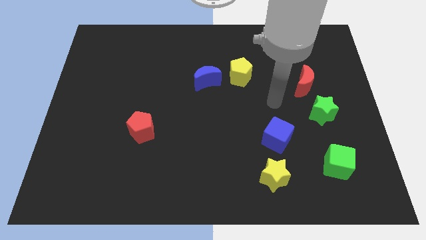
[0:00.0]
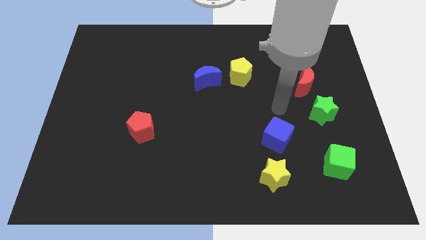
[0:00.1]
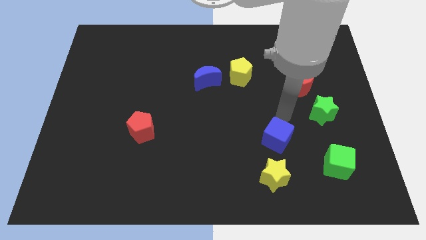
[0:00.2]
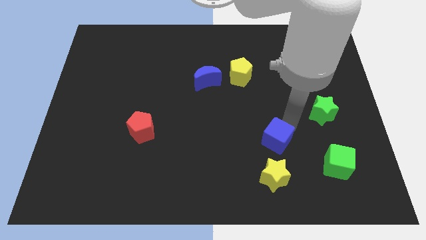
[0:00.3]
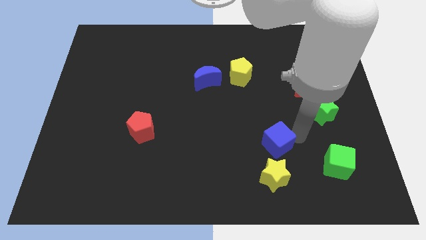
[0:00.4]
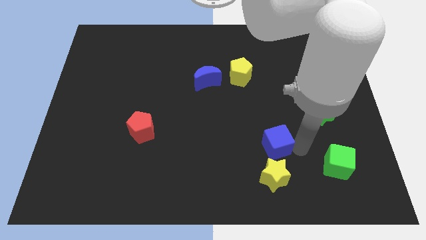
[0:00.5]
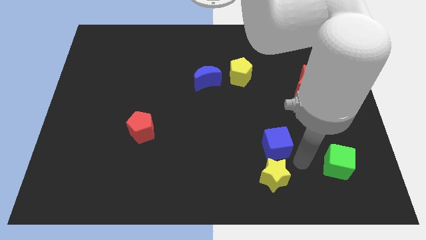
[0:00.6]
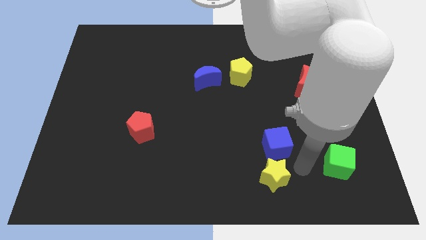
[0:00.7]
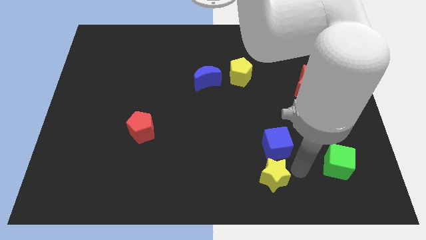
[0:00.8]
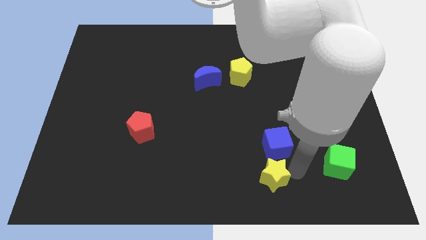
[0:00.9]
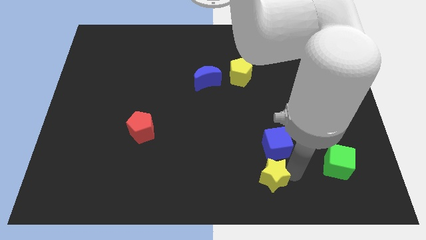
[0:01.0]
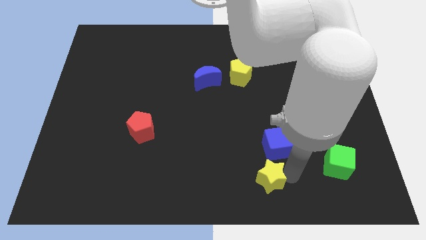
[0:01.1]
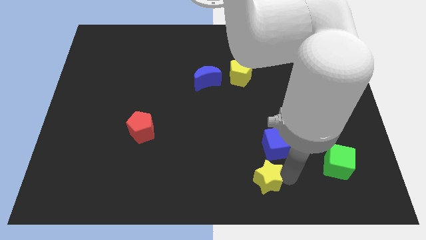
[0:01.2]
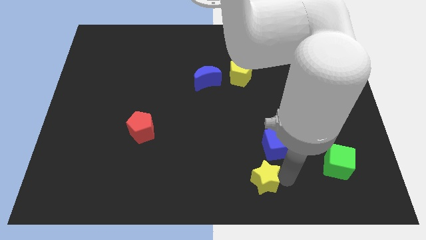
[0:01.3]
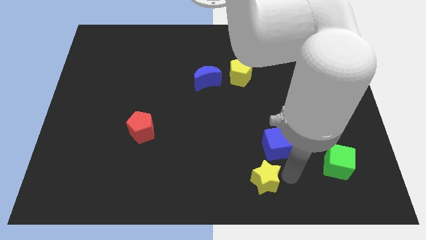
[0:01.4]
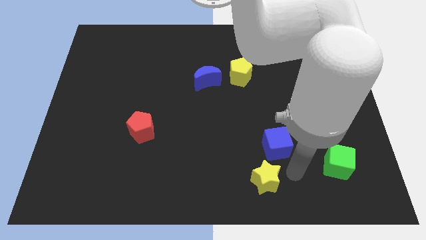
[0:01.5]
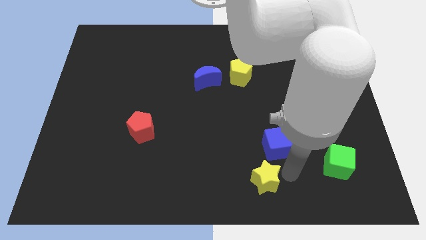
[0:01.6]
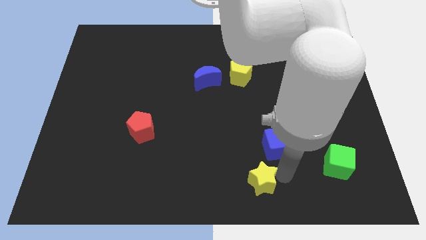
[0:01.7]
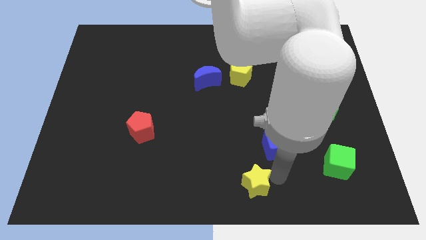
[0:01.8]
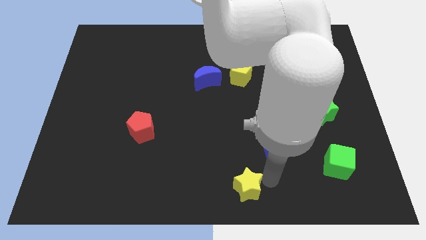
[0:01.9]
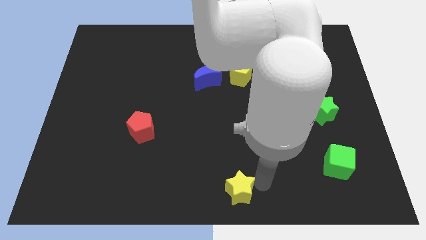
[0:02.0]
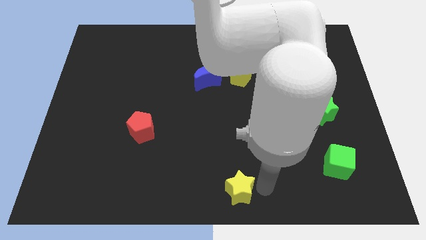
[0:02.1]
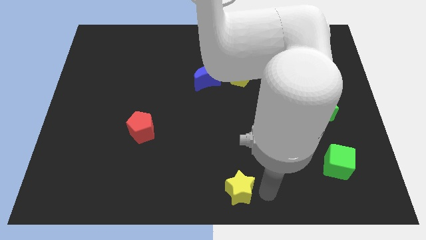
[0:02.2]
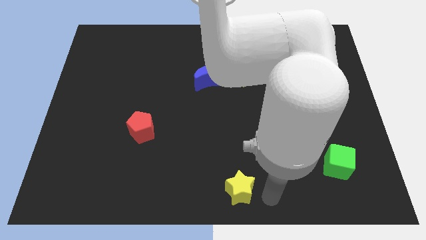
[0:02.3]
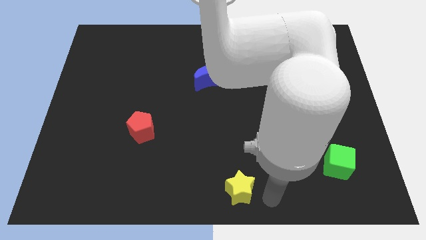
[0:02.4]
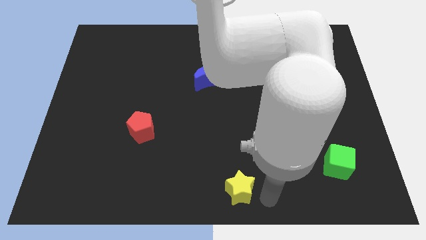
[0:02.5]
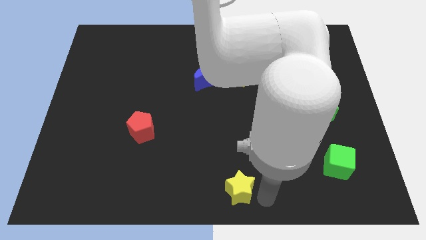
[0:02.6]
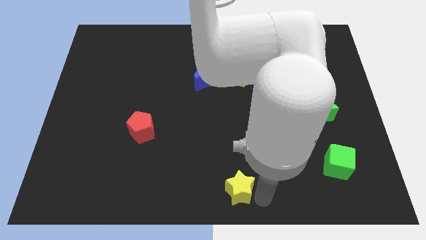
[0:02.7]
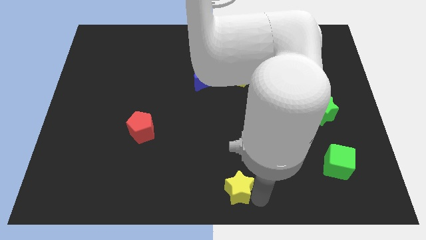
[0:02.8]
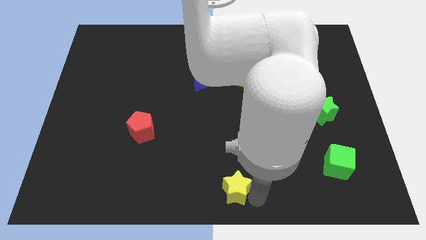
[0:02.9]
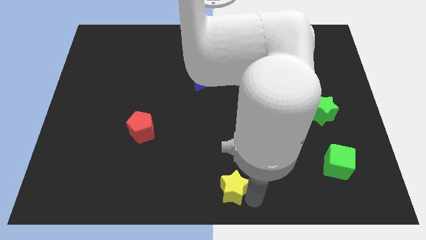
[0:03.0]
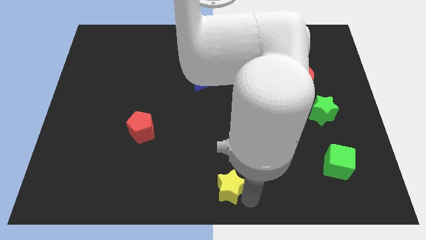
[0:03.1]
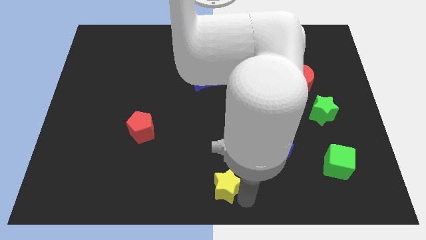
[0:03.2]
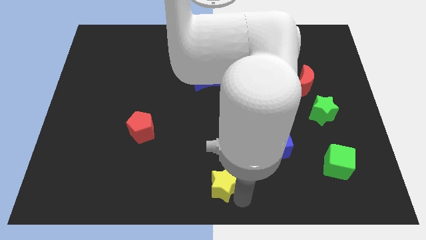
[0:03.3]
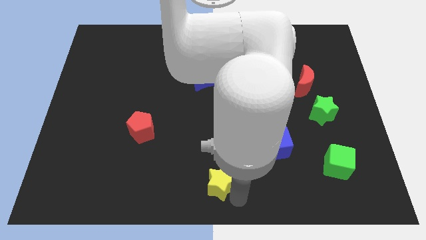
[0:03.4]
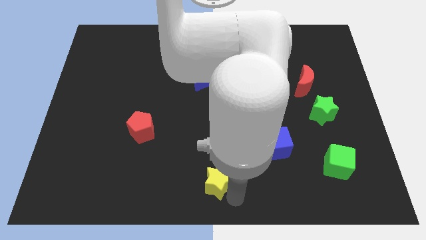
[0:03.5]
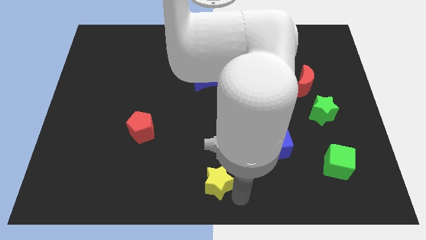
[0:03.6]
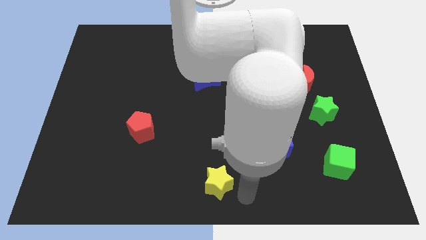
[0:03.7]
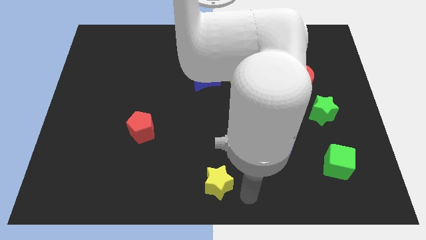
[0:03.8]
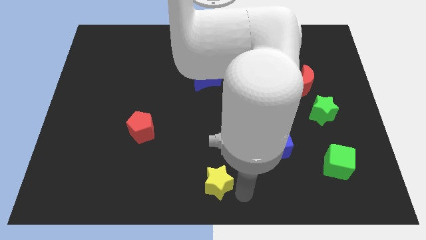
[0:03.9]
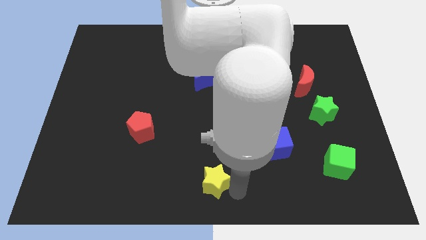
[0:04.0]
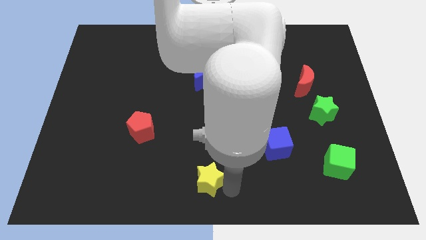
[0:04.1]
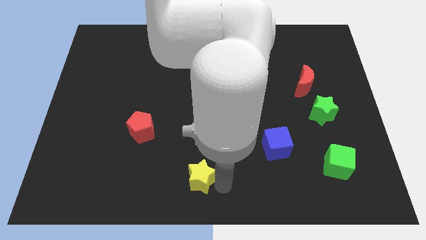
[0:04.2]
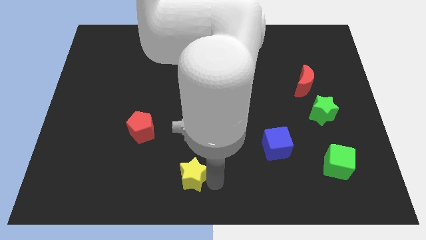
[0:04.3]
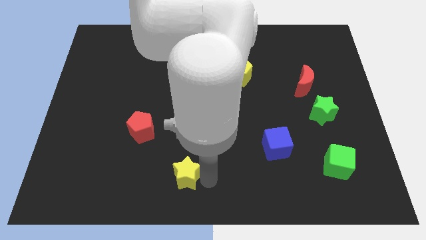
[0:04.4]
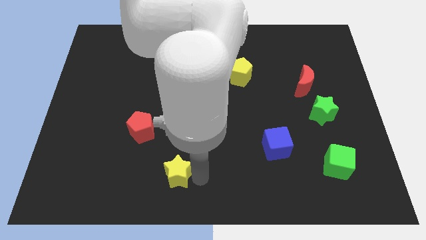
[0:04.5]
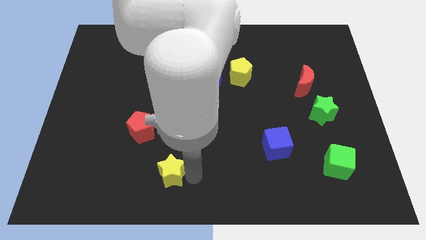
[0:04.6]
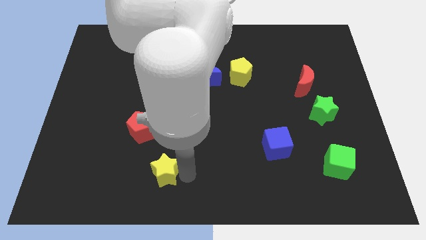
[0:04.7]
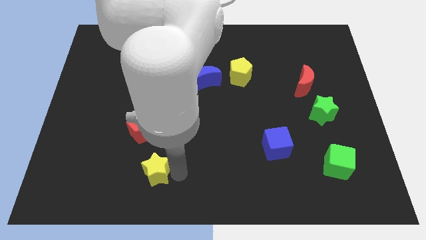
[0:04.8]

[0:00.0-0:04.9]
push the yellow star to the bottom side of the red pentagon

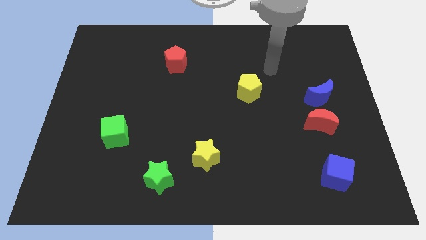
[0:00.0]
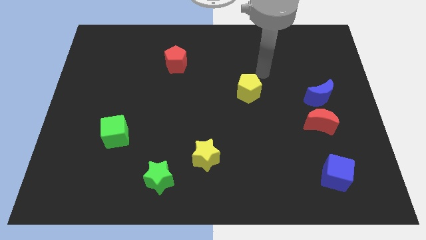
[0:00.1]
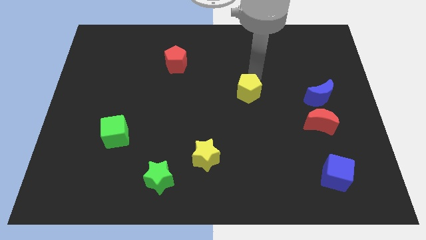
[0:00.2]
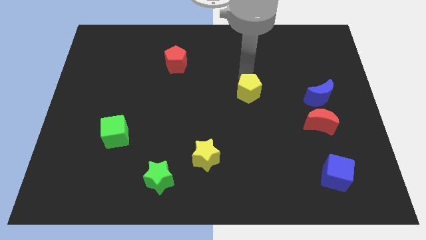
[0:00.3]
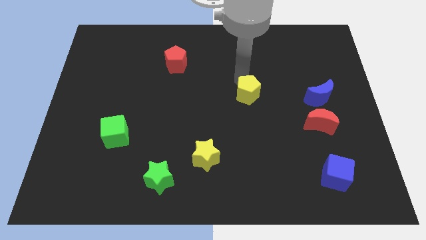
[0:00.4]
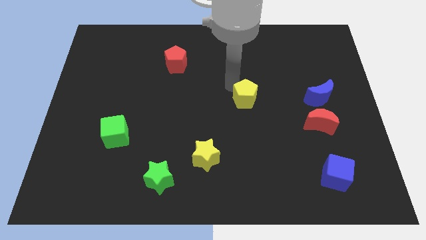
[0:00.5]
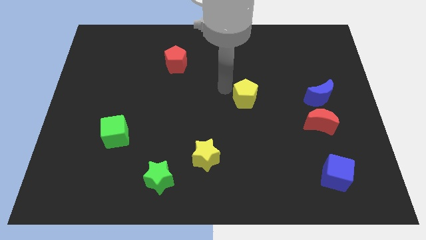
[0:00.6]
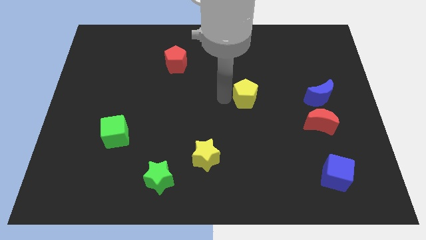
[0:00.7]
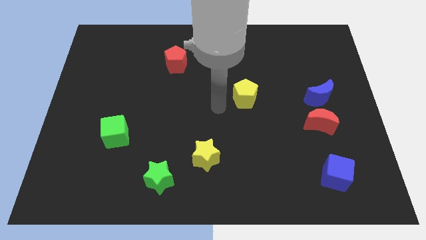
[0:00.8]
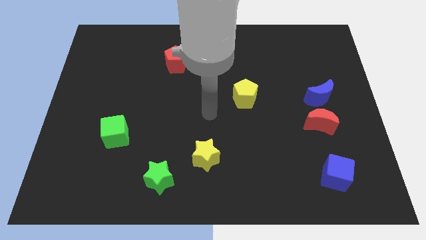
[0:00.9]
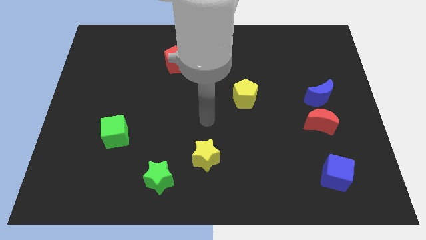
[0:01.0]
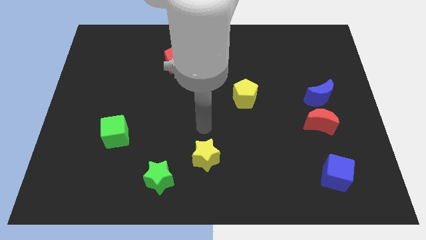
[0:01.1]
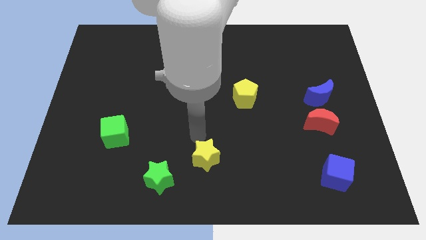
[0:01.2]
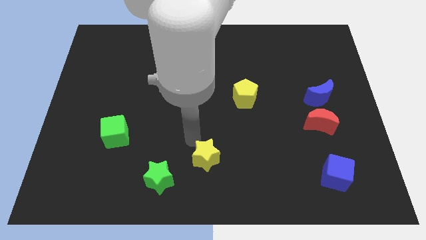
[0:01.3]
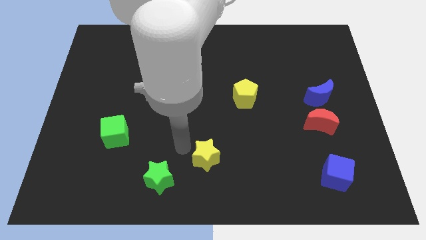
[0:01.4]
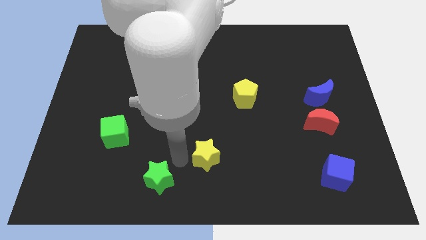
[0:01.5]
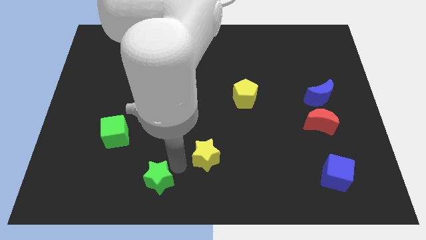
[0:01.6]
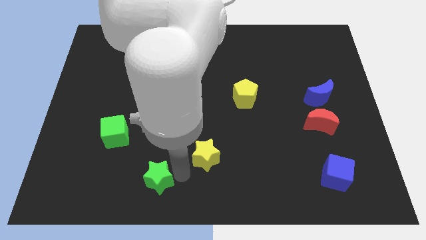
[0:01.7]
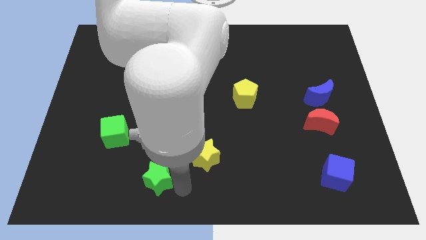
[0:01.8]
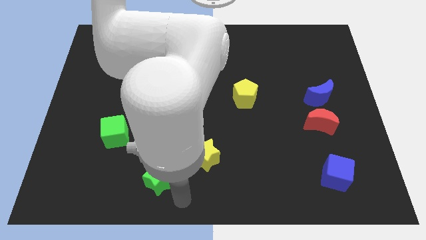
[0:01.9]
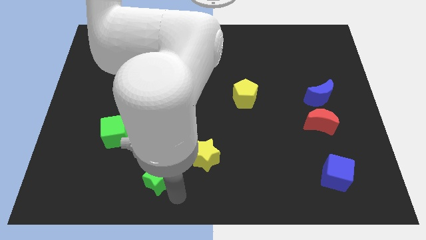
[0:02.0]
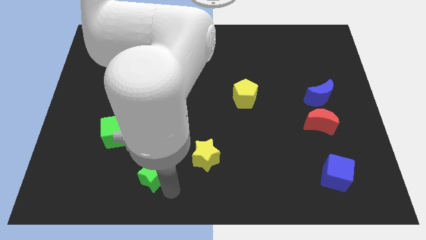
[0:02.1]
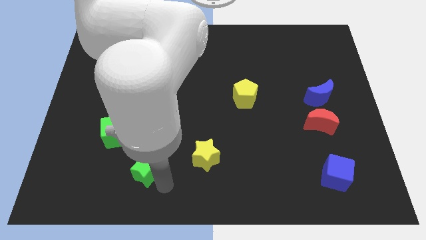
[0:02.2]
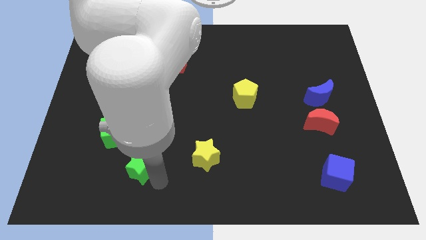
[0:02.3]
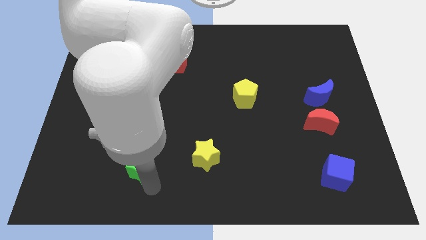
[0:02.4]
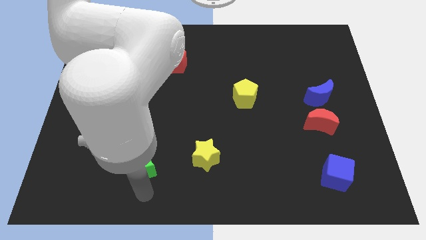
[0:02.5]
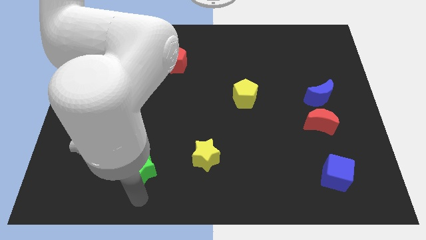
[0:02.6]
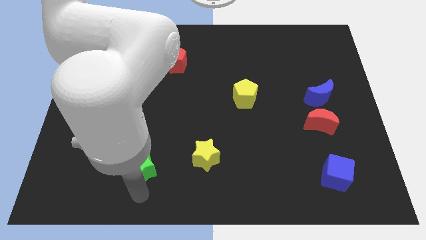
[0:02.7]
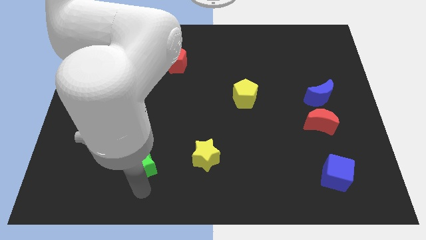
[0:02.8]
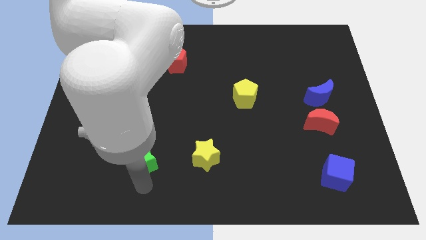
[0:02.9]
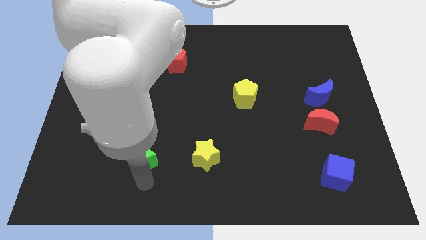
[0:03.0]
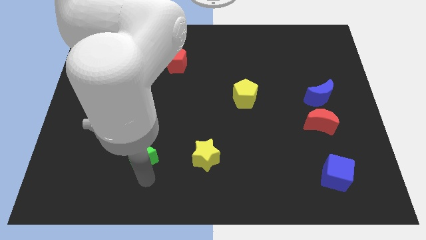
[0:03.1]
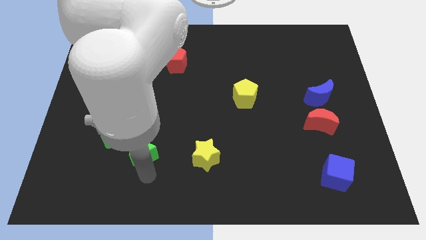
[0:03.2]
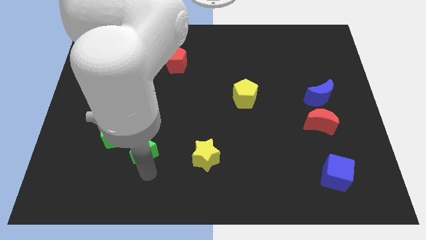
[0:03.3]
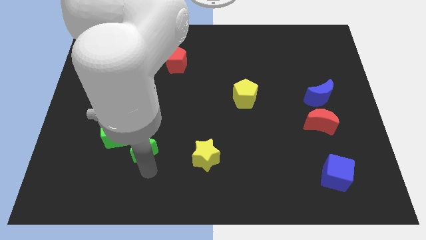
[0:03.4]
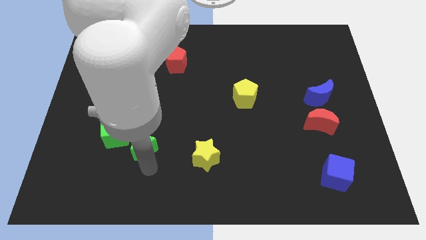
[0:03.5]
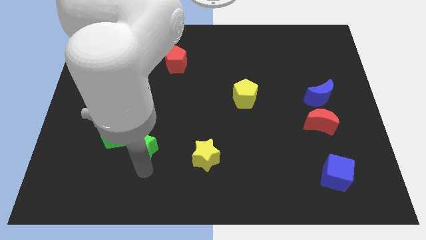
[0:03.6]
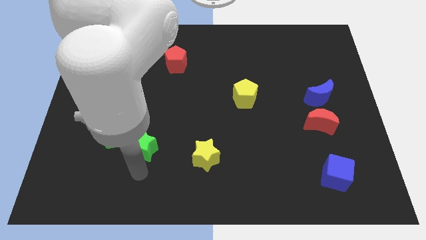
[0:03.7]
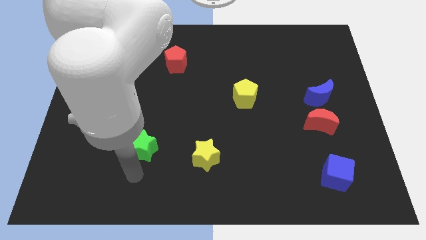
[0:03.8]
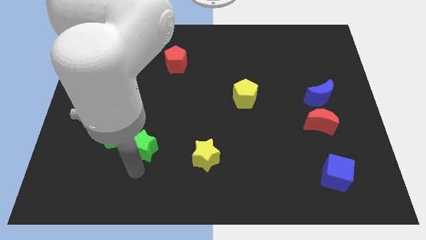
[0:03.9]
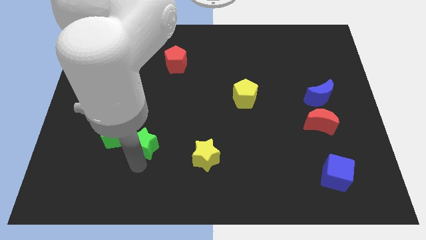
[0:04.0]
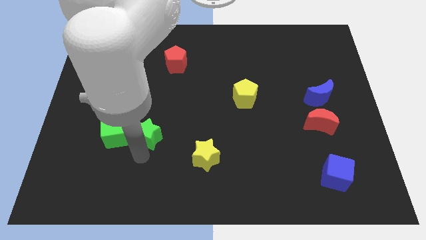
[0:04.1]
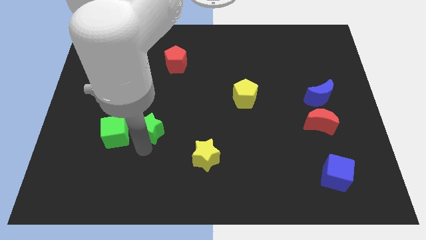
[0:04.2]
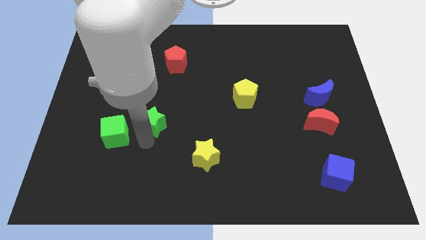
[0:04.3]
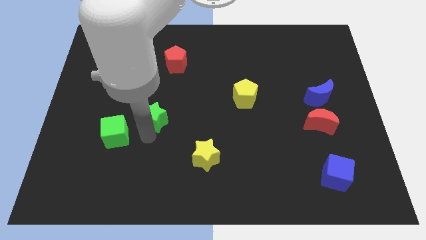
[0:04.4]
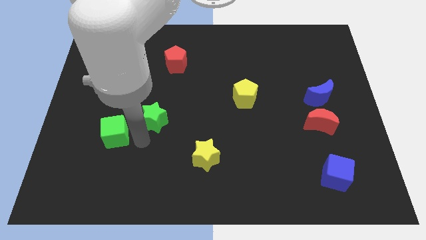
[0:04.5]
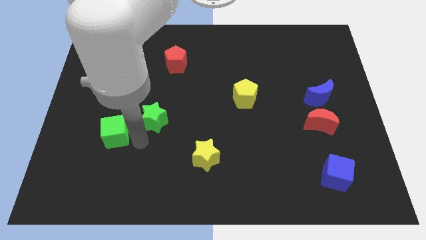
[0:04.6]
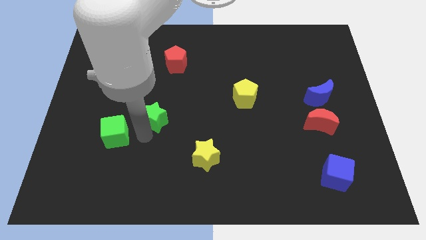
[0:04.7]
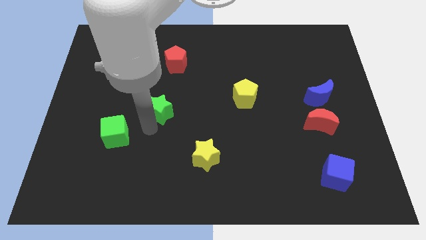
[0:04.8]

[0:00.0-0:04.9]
push the green star below the red pentagon
